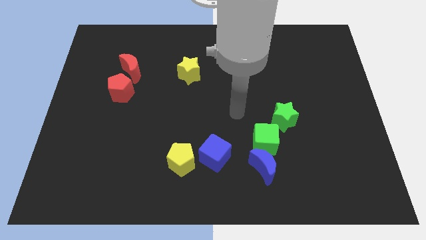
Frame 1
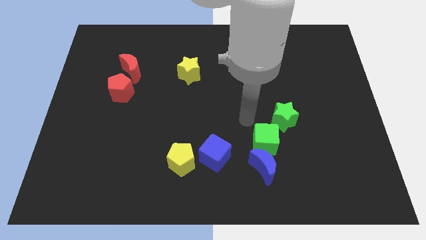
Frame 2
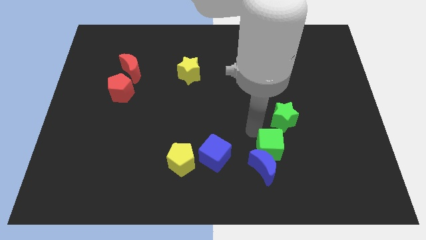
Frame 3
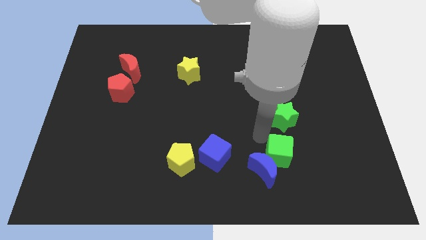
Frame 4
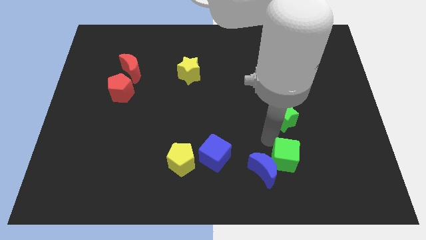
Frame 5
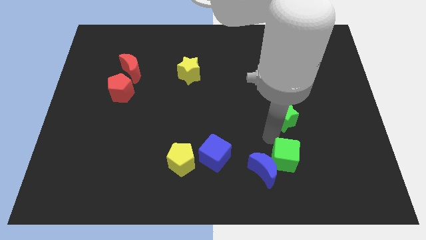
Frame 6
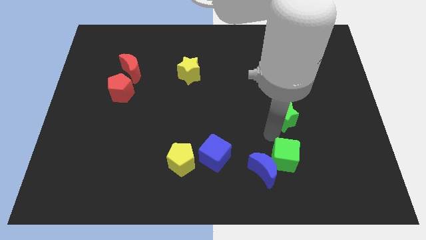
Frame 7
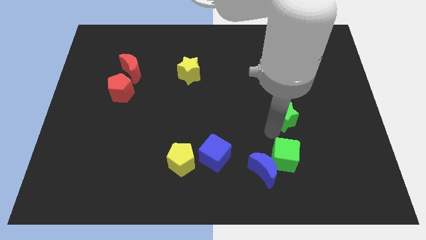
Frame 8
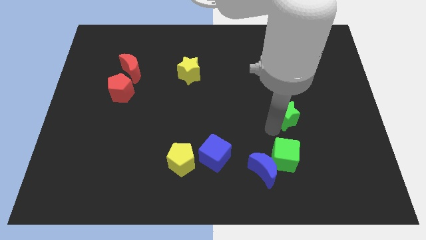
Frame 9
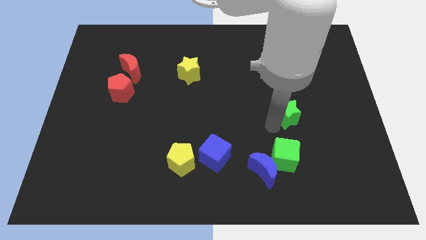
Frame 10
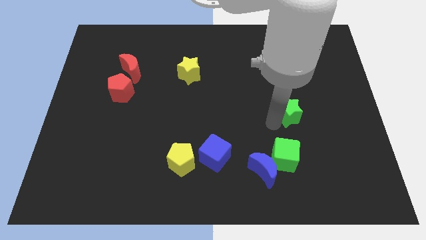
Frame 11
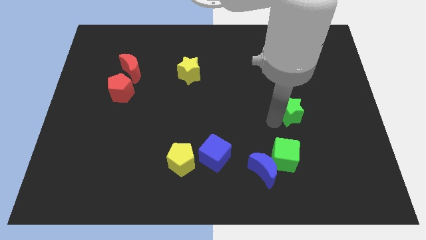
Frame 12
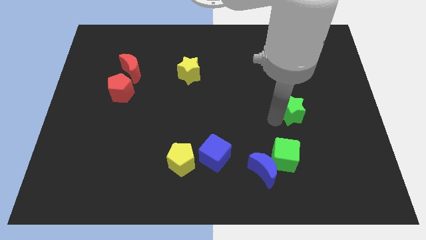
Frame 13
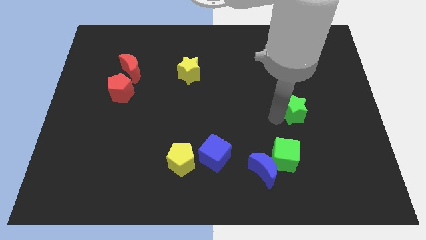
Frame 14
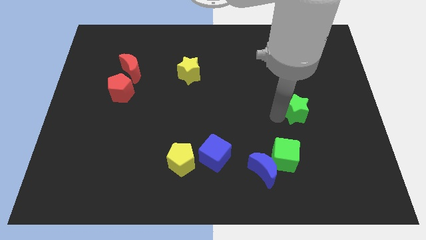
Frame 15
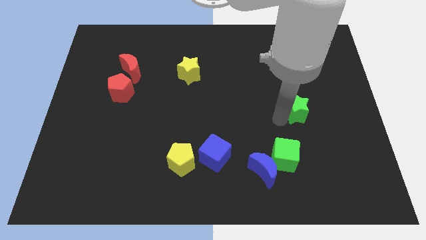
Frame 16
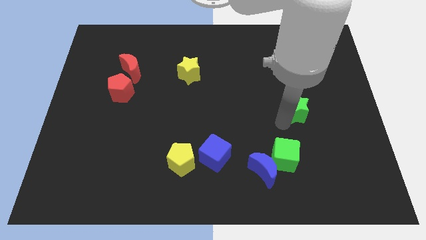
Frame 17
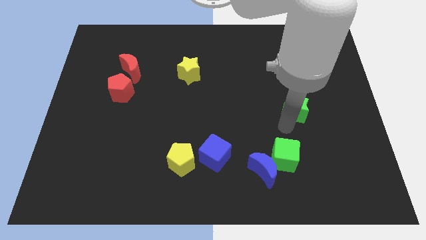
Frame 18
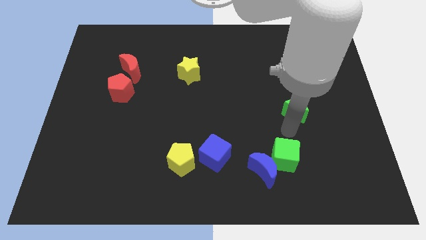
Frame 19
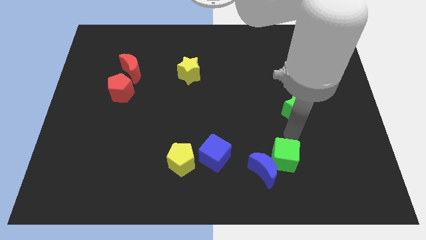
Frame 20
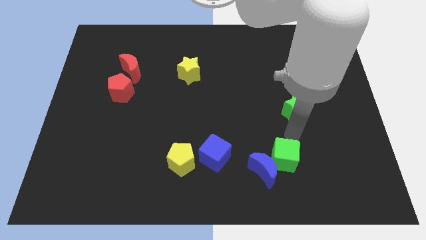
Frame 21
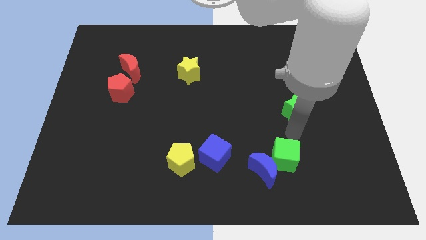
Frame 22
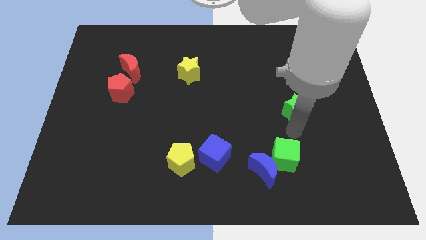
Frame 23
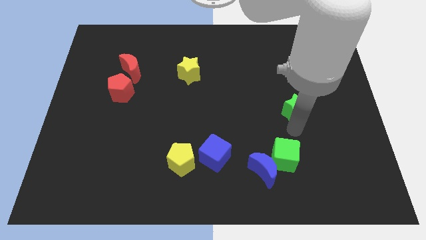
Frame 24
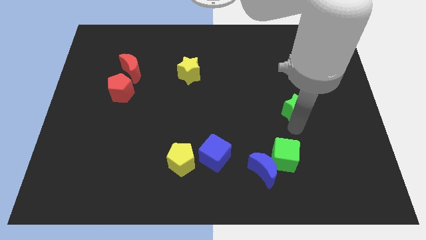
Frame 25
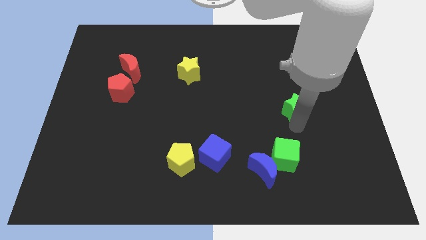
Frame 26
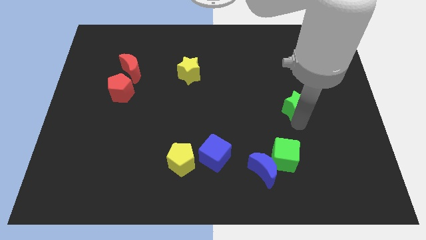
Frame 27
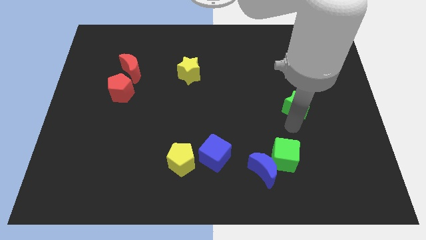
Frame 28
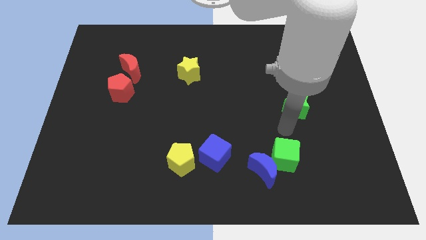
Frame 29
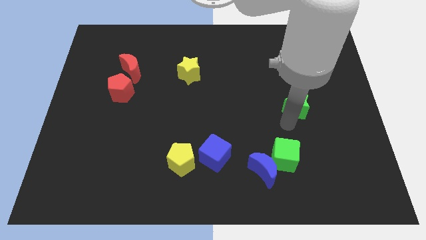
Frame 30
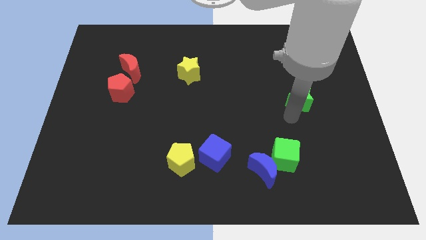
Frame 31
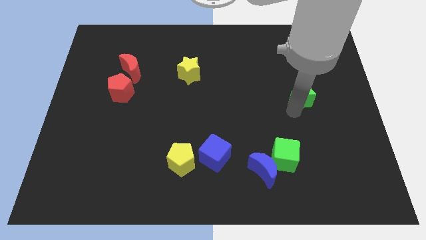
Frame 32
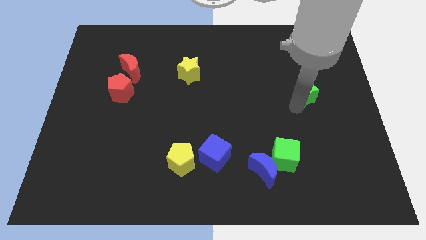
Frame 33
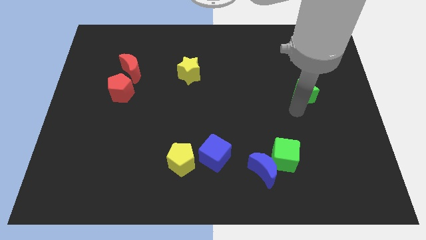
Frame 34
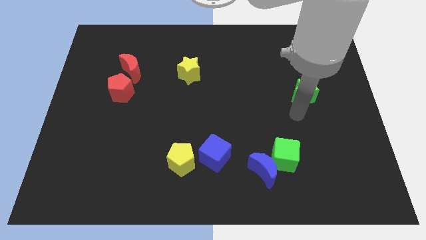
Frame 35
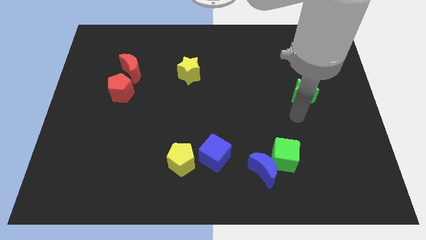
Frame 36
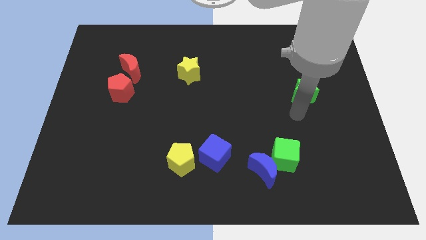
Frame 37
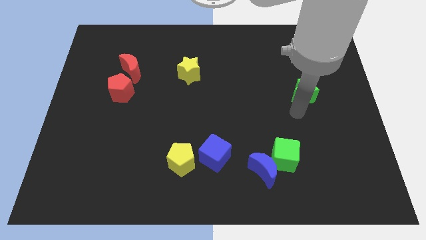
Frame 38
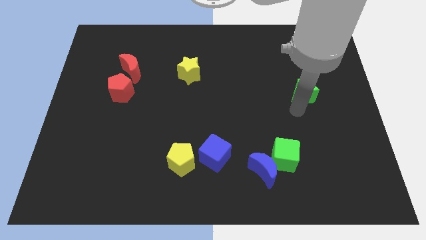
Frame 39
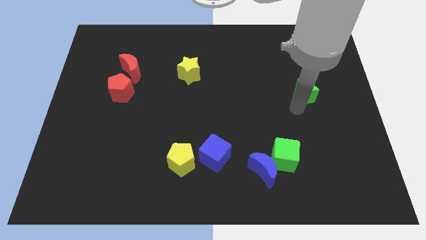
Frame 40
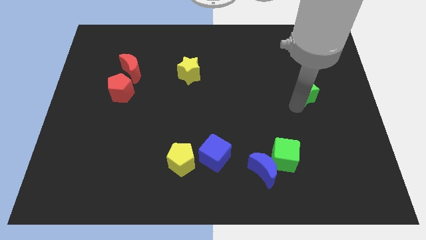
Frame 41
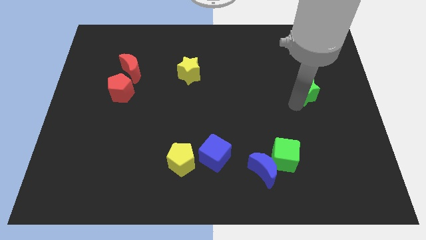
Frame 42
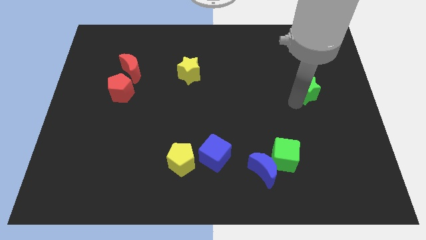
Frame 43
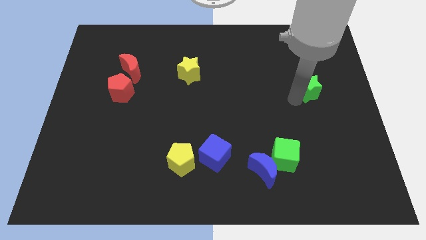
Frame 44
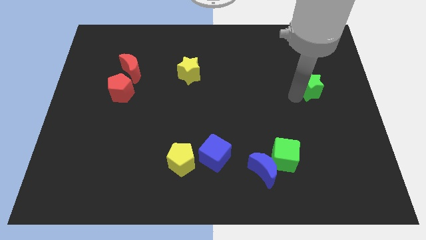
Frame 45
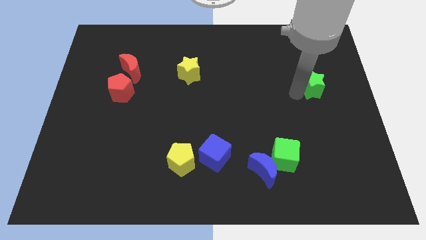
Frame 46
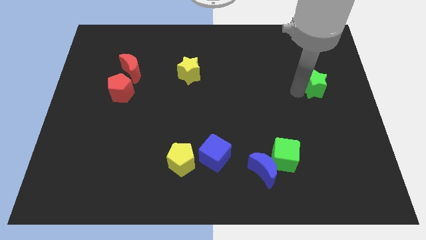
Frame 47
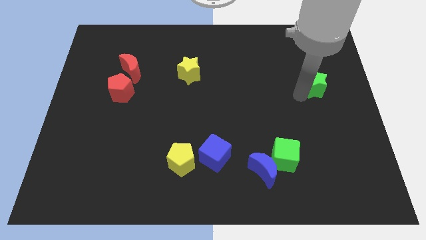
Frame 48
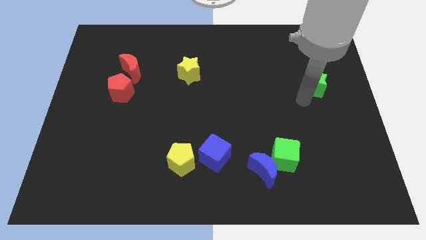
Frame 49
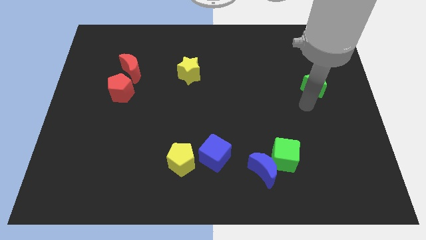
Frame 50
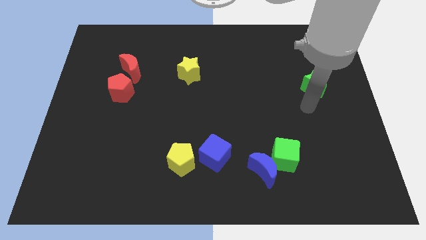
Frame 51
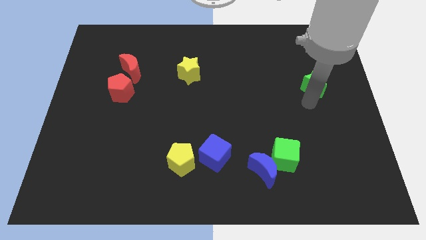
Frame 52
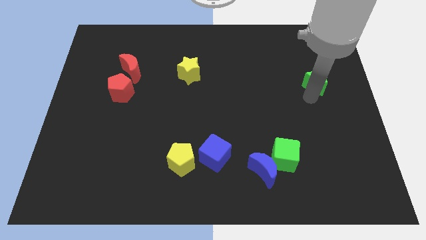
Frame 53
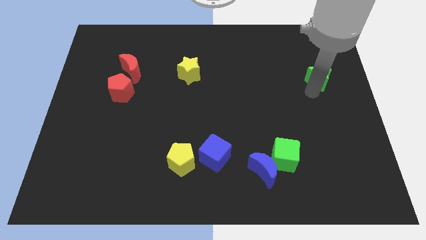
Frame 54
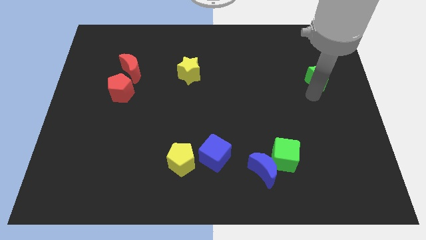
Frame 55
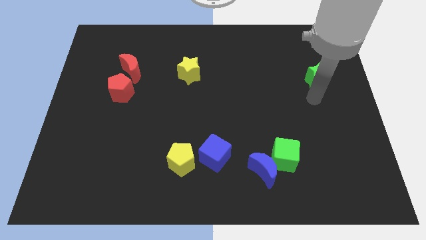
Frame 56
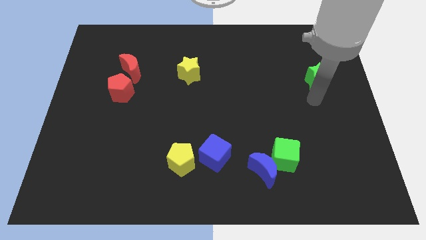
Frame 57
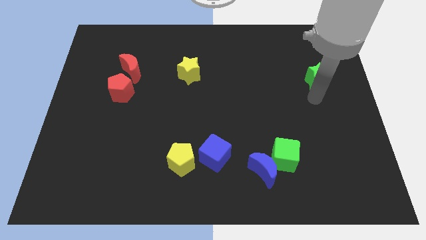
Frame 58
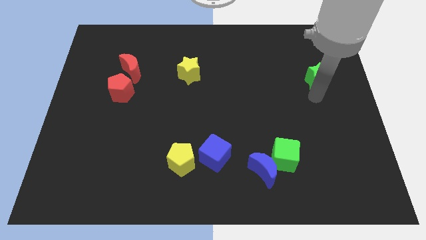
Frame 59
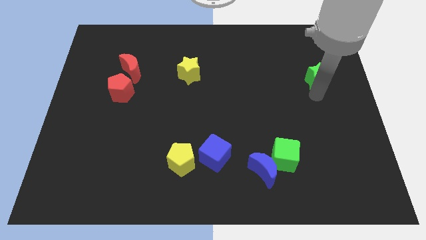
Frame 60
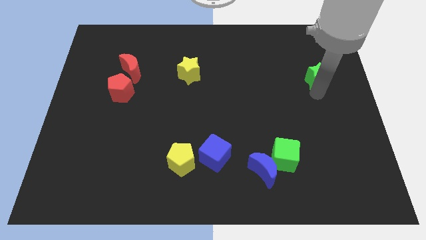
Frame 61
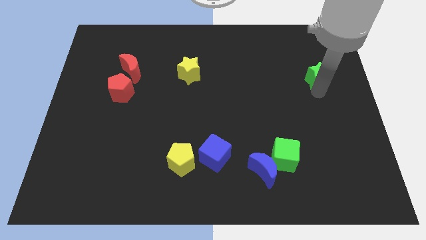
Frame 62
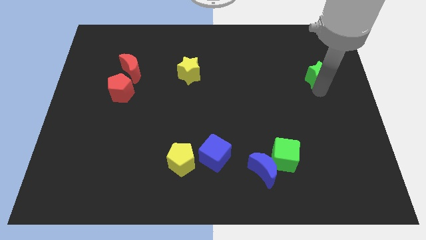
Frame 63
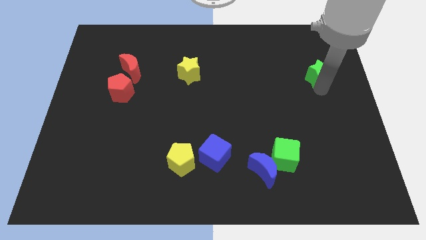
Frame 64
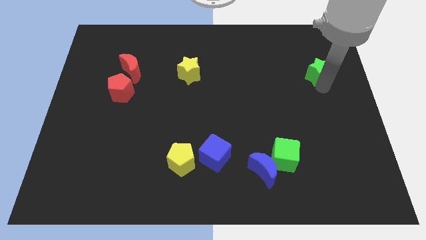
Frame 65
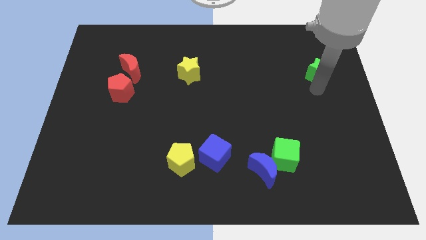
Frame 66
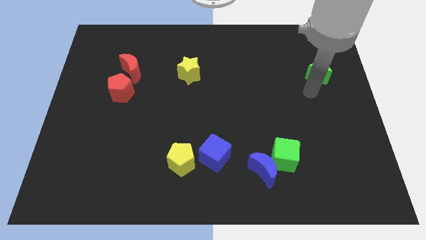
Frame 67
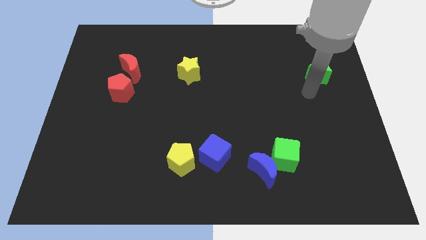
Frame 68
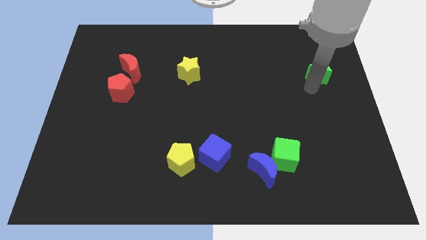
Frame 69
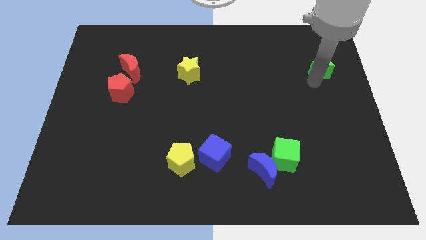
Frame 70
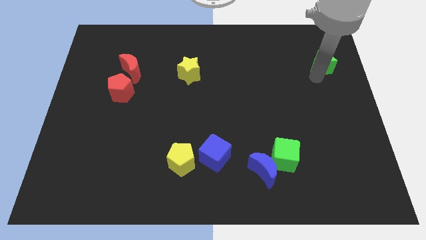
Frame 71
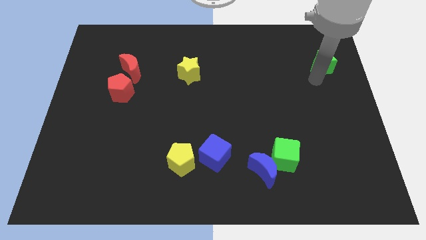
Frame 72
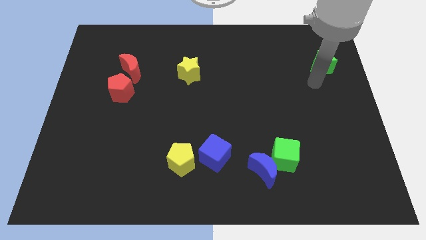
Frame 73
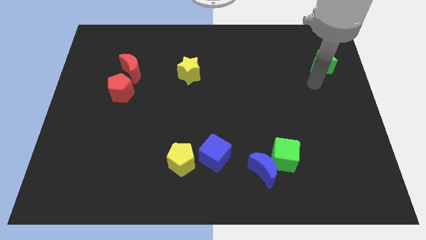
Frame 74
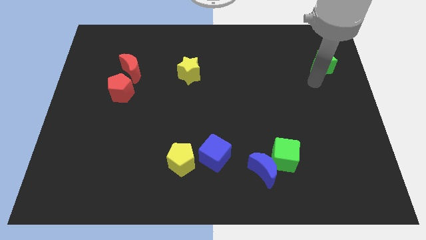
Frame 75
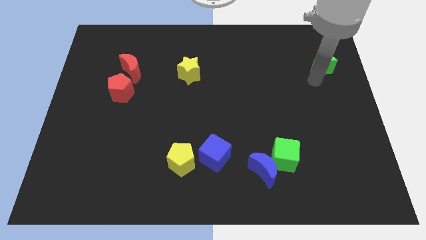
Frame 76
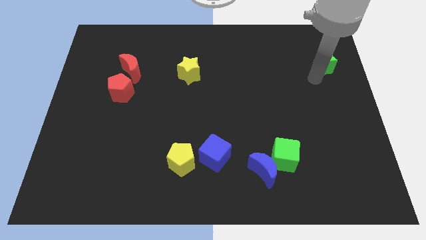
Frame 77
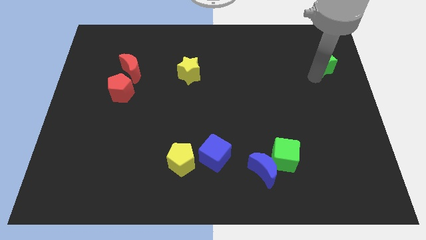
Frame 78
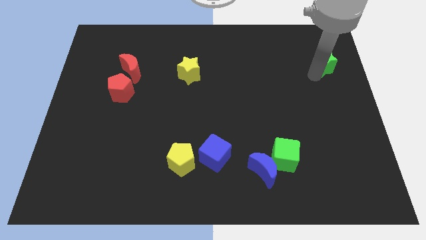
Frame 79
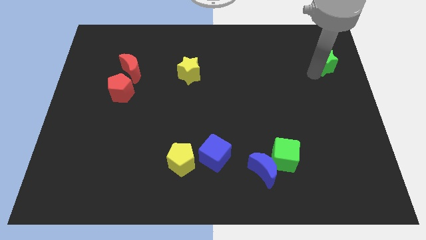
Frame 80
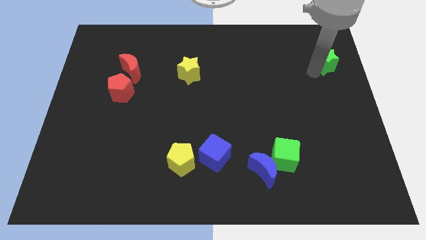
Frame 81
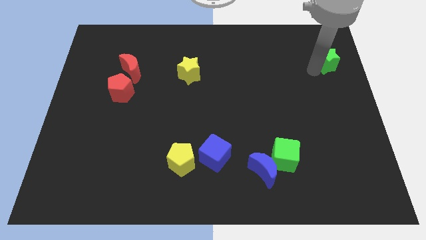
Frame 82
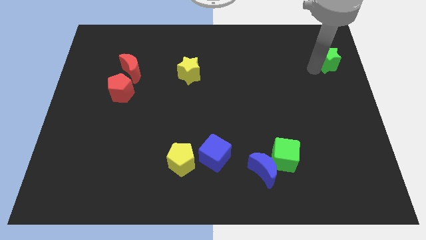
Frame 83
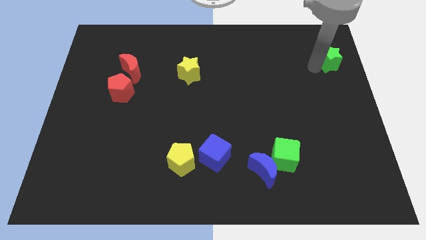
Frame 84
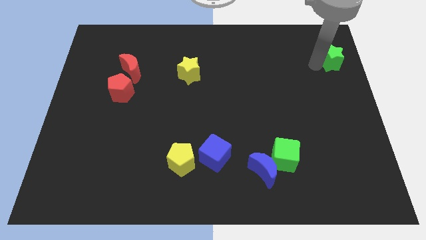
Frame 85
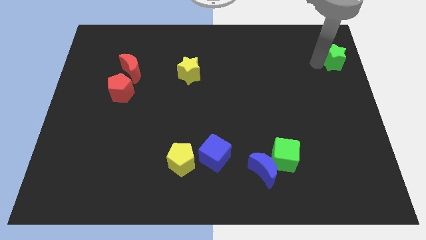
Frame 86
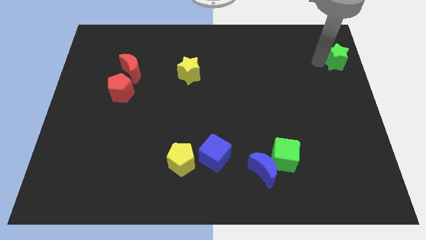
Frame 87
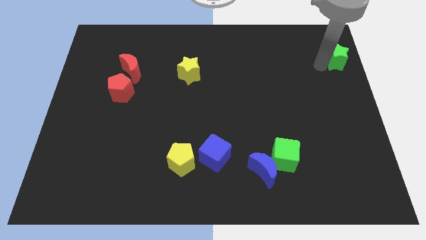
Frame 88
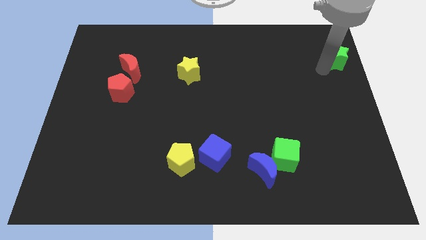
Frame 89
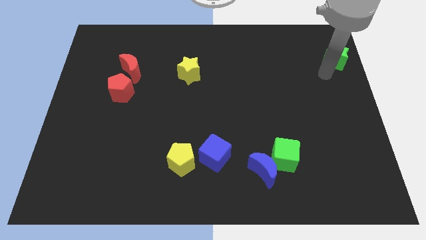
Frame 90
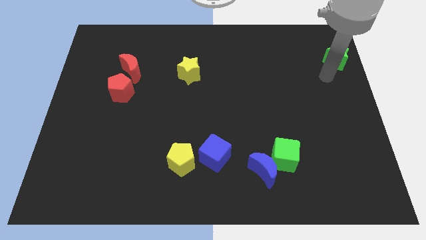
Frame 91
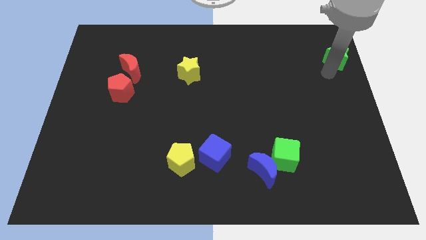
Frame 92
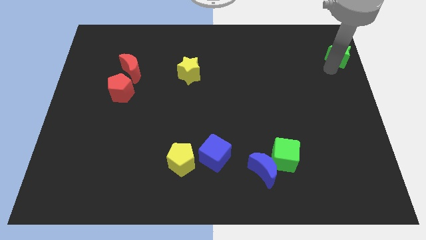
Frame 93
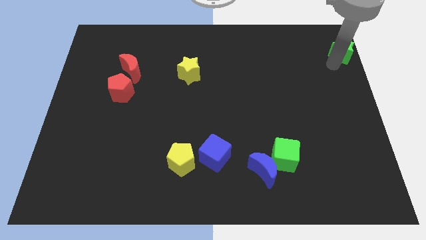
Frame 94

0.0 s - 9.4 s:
put the green star to the top right
